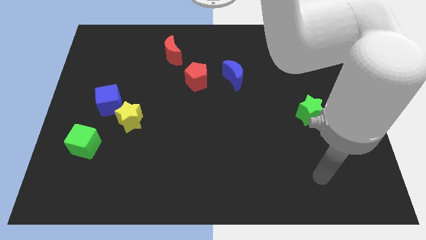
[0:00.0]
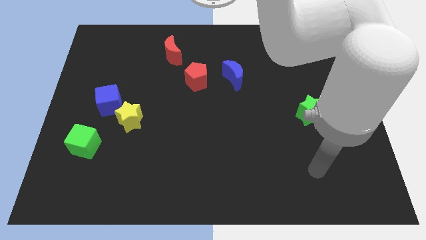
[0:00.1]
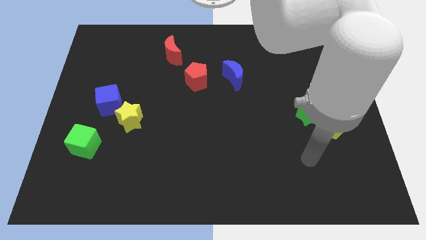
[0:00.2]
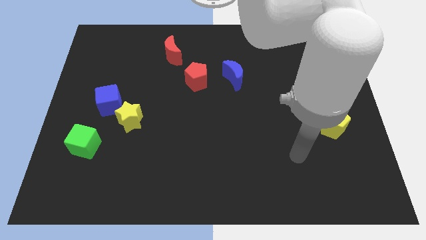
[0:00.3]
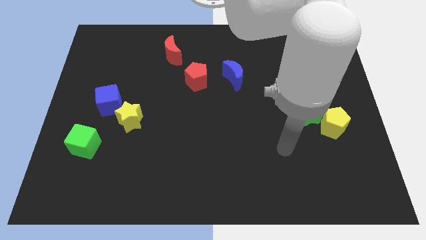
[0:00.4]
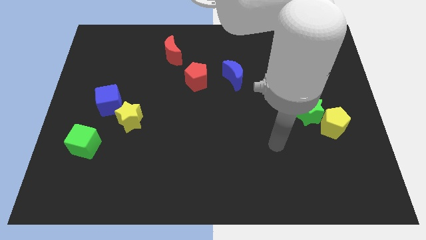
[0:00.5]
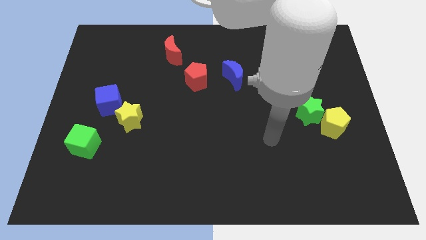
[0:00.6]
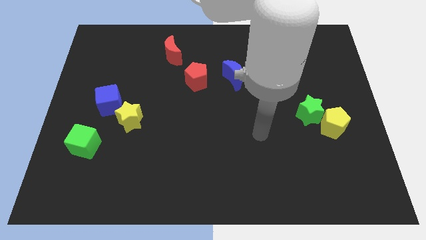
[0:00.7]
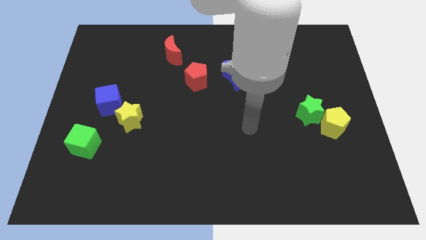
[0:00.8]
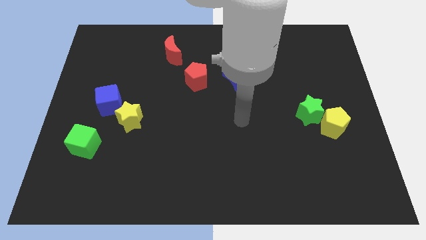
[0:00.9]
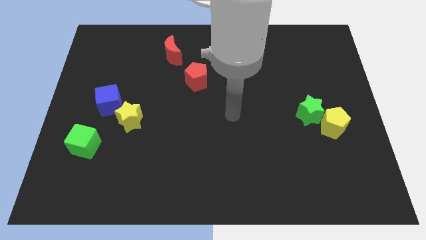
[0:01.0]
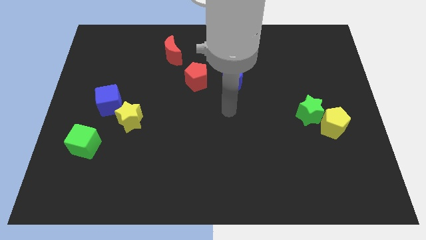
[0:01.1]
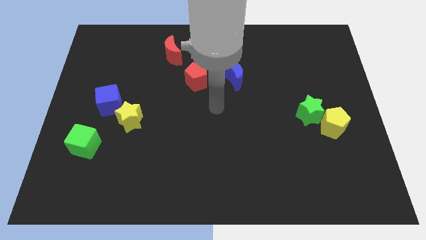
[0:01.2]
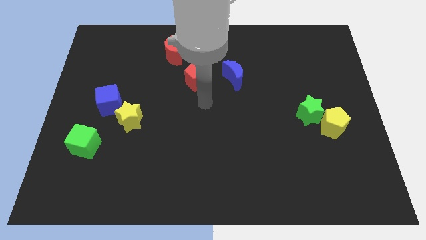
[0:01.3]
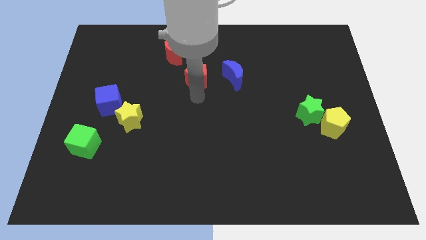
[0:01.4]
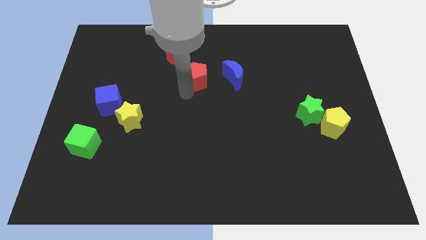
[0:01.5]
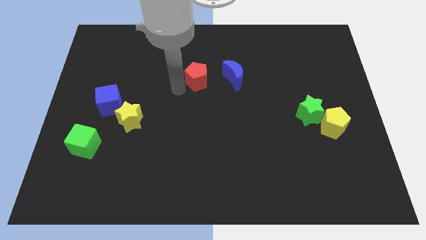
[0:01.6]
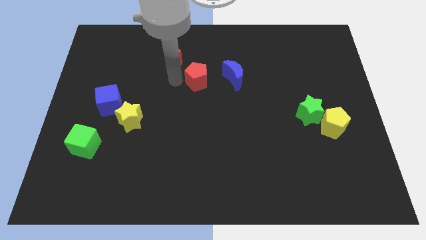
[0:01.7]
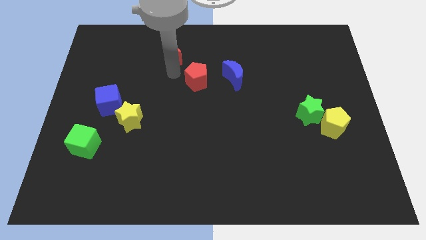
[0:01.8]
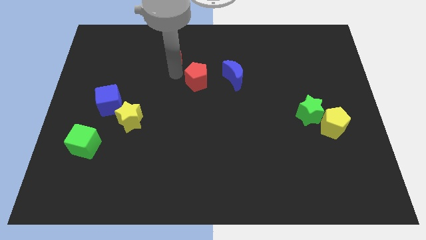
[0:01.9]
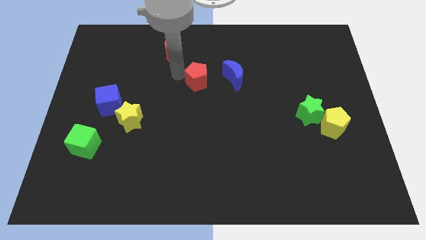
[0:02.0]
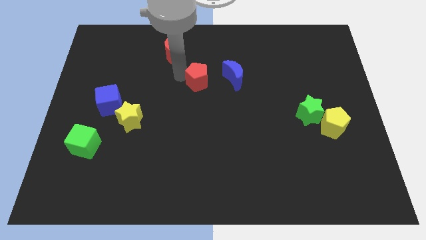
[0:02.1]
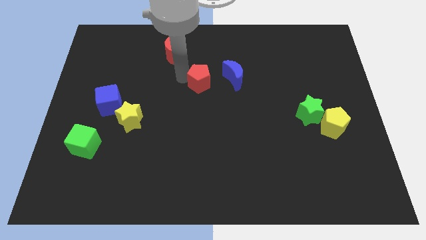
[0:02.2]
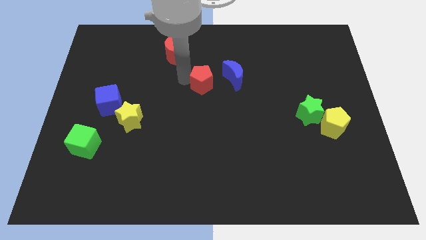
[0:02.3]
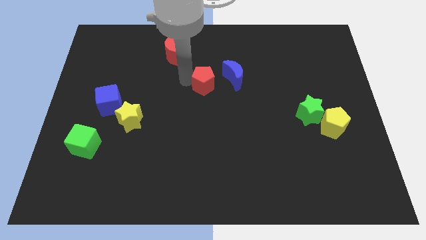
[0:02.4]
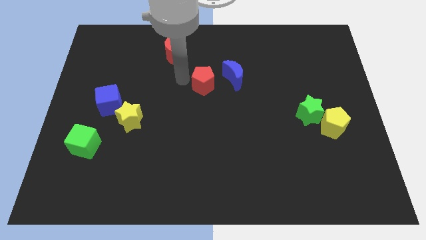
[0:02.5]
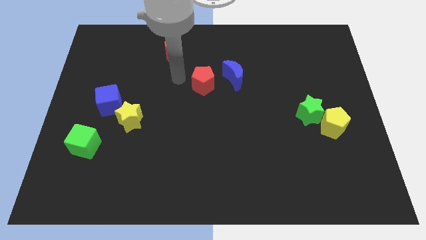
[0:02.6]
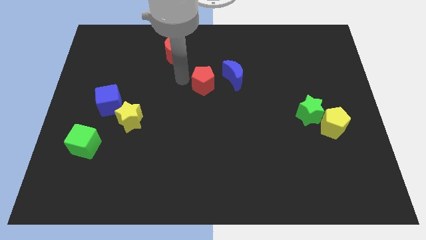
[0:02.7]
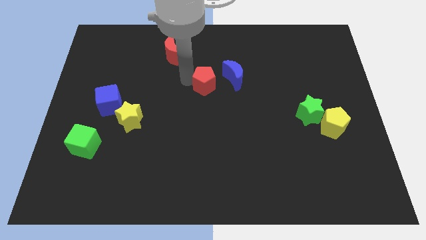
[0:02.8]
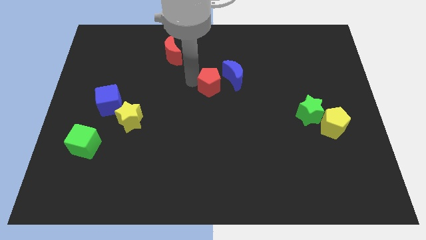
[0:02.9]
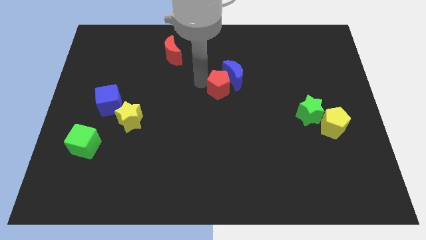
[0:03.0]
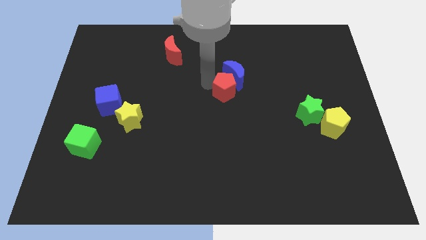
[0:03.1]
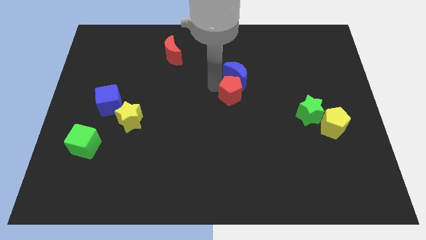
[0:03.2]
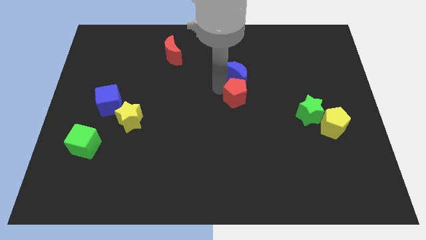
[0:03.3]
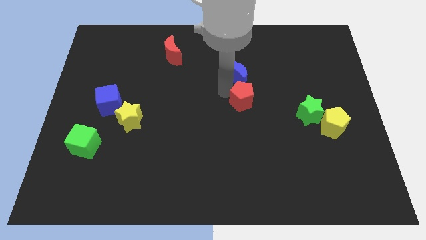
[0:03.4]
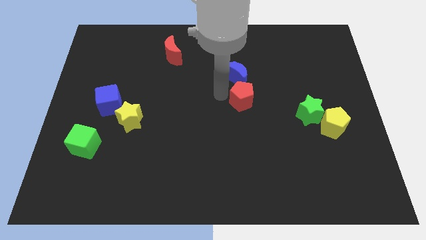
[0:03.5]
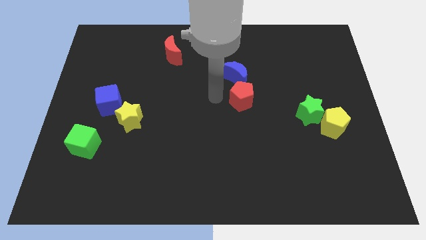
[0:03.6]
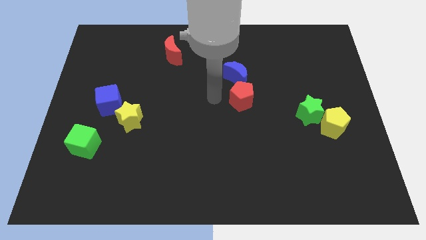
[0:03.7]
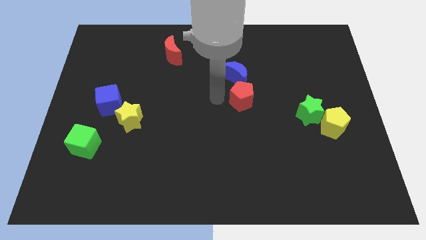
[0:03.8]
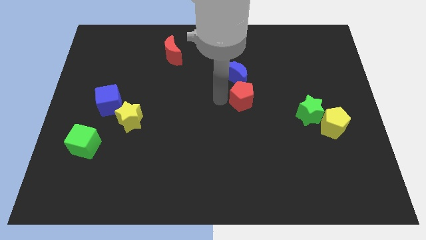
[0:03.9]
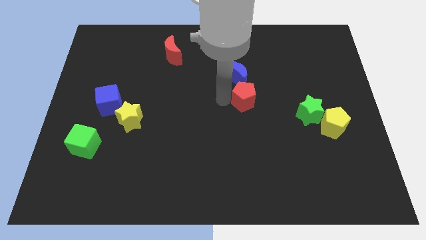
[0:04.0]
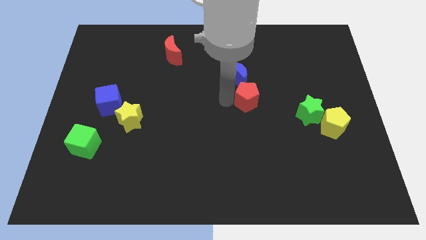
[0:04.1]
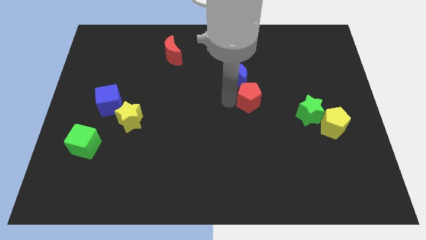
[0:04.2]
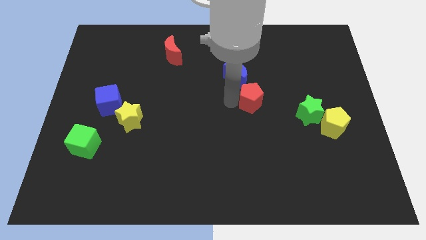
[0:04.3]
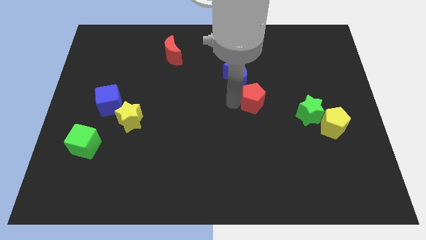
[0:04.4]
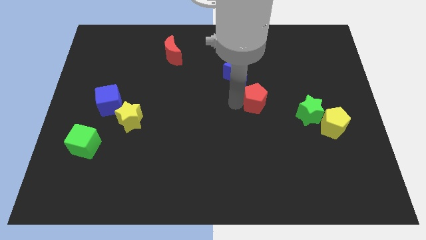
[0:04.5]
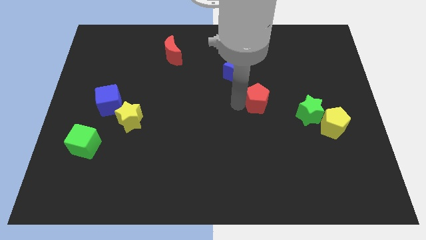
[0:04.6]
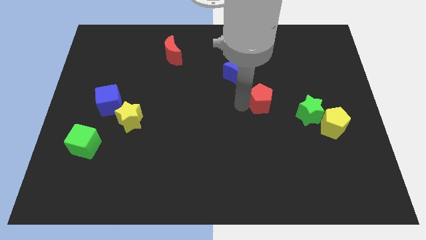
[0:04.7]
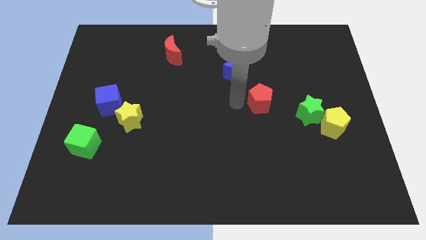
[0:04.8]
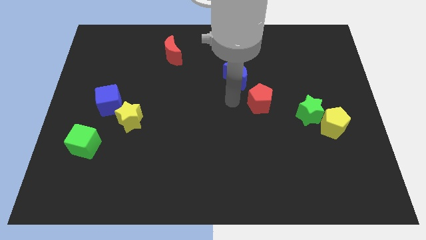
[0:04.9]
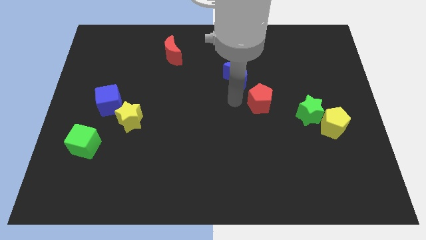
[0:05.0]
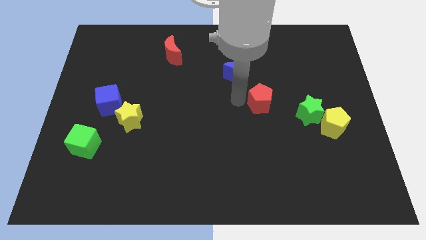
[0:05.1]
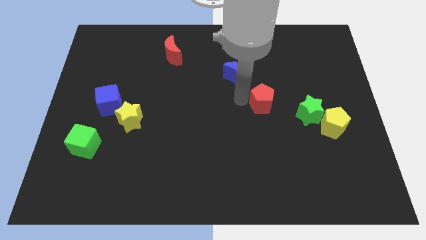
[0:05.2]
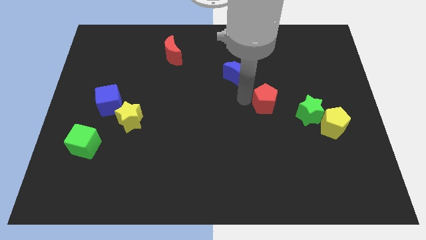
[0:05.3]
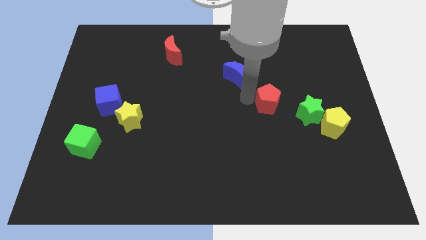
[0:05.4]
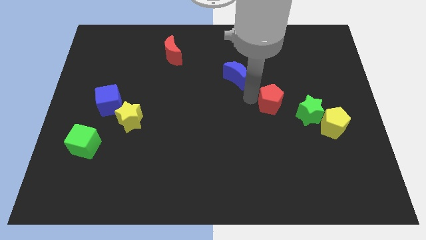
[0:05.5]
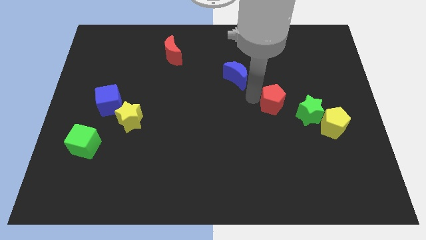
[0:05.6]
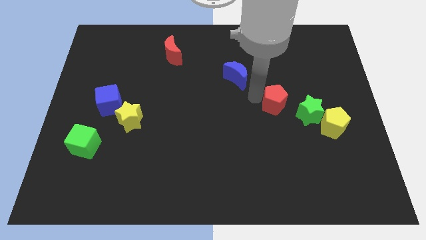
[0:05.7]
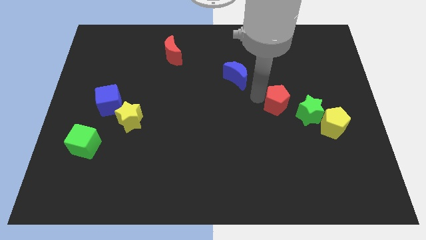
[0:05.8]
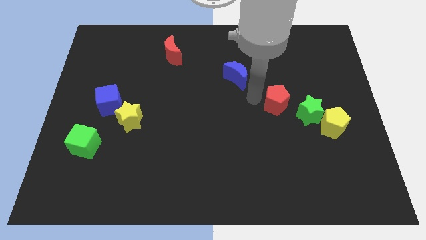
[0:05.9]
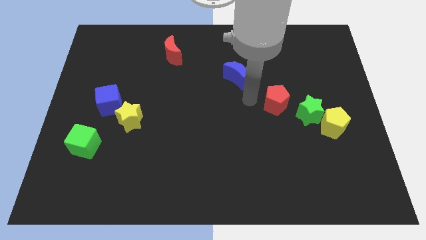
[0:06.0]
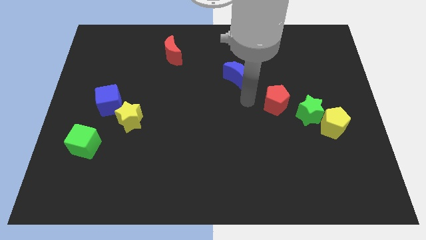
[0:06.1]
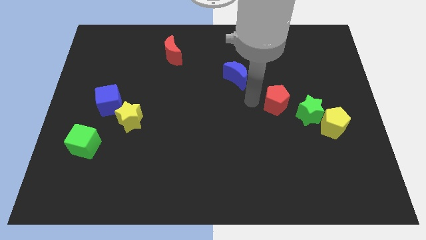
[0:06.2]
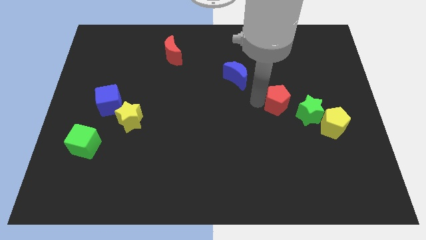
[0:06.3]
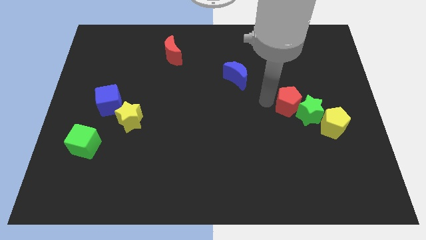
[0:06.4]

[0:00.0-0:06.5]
put the red pentagon towards the green star

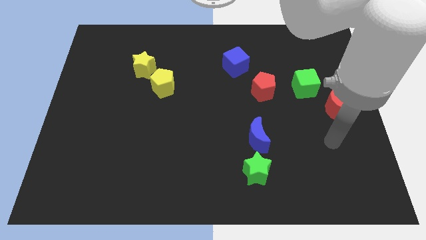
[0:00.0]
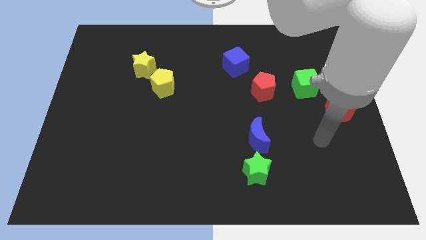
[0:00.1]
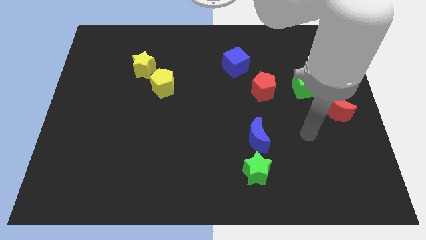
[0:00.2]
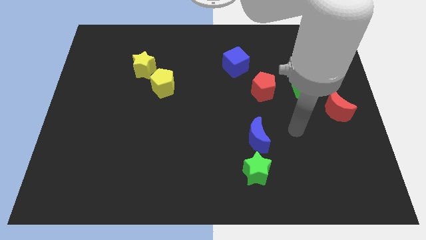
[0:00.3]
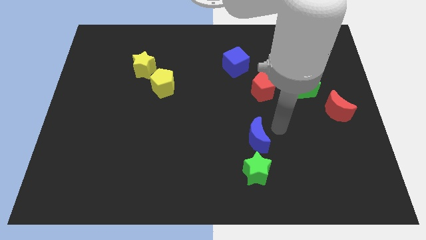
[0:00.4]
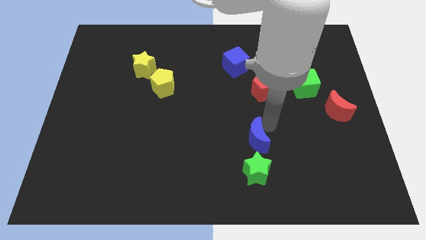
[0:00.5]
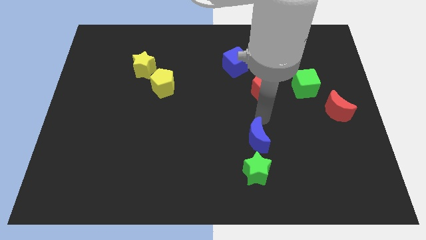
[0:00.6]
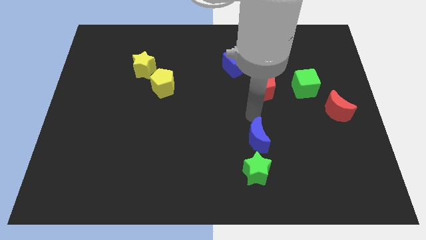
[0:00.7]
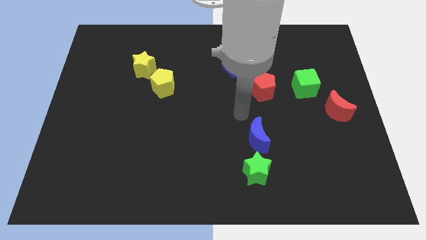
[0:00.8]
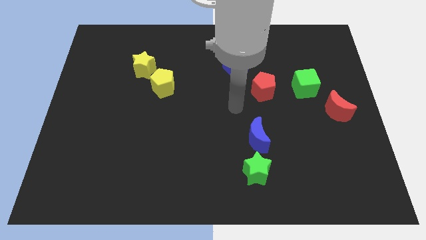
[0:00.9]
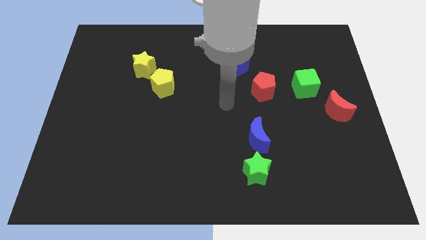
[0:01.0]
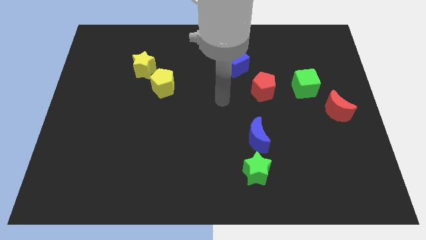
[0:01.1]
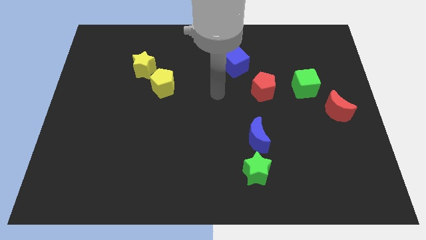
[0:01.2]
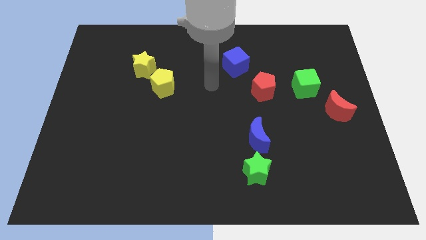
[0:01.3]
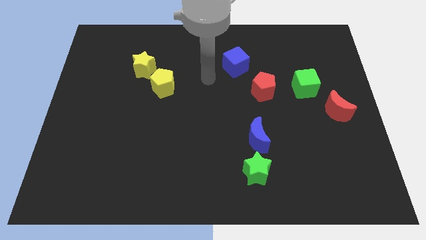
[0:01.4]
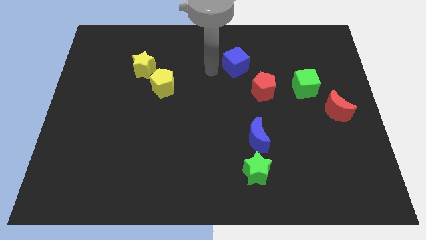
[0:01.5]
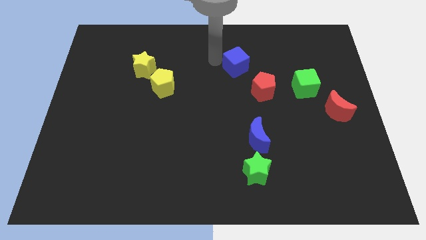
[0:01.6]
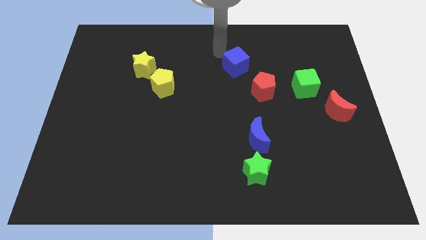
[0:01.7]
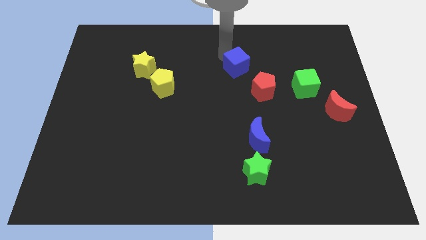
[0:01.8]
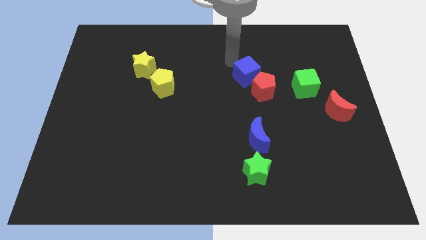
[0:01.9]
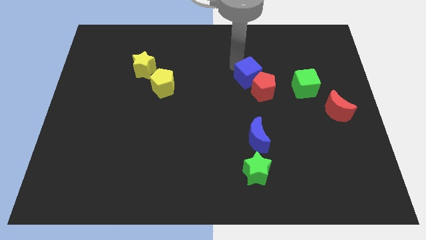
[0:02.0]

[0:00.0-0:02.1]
slide the blue cube towards the red pentagon
